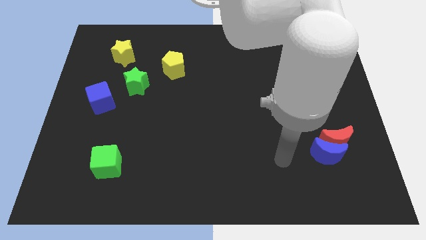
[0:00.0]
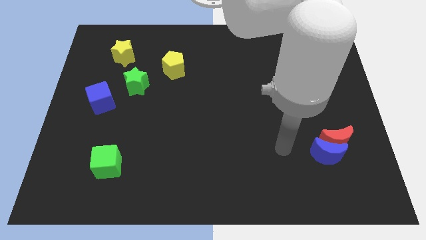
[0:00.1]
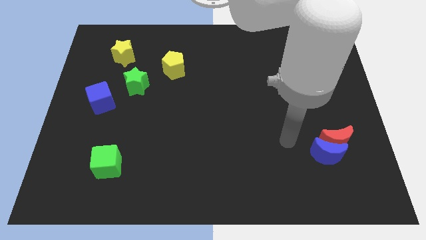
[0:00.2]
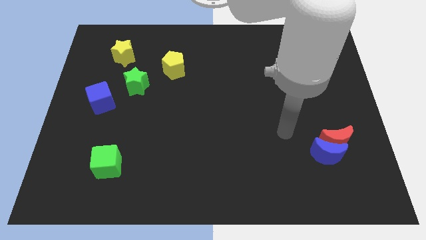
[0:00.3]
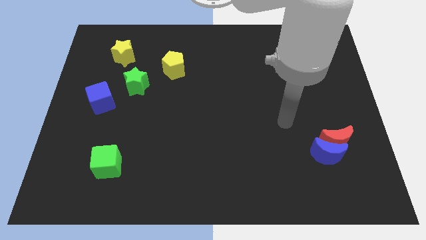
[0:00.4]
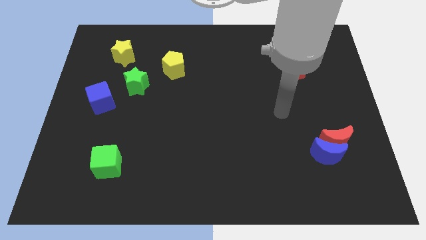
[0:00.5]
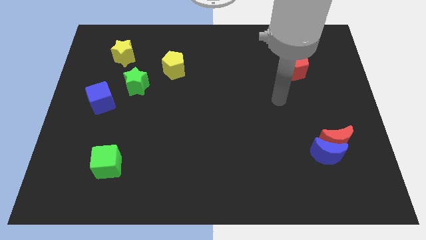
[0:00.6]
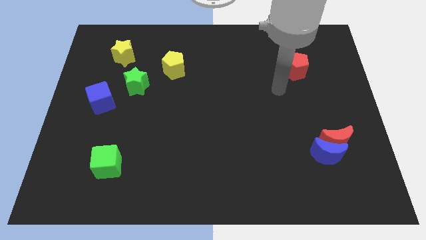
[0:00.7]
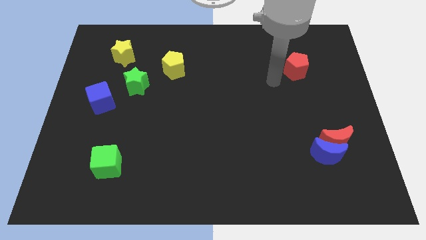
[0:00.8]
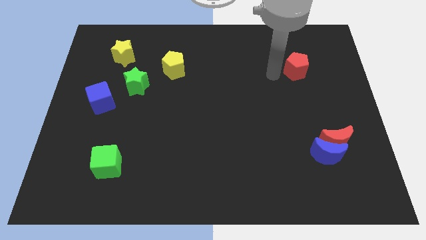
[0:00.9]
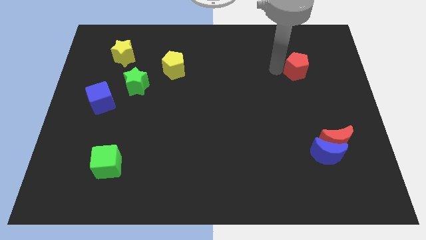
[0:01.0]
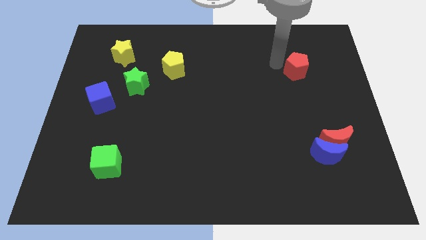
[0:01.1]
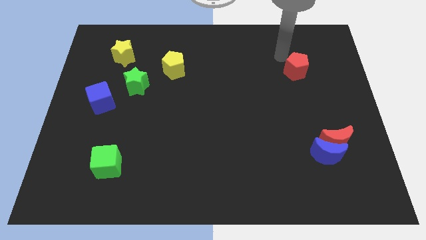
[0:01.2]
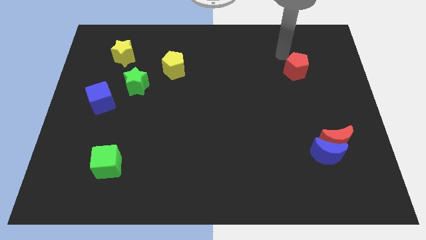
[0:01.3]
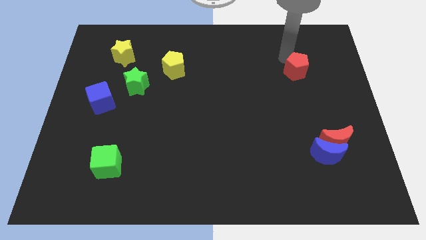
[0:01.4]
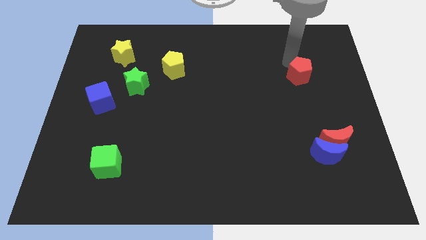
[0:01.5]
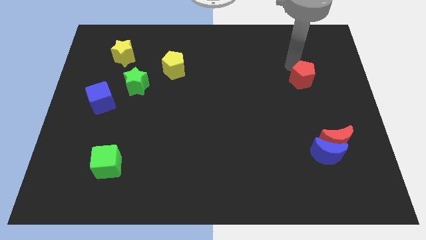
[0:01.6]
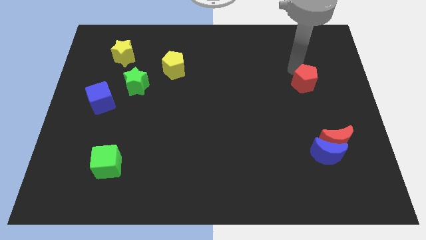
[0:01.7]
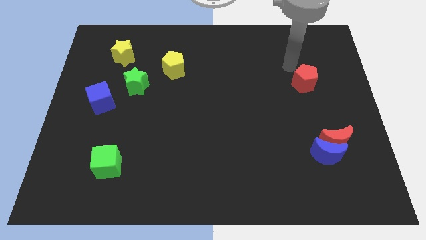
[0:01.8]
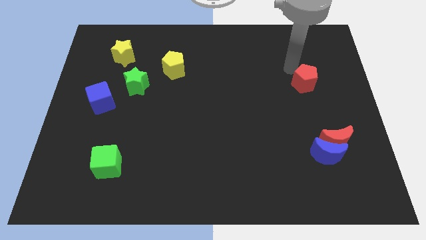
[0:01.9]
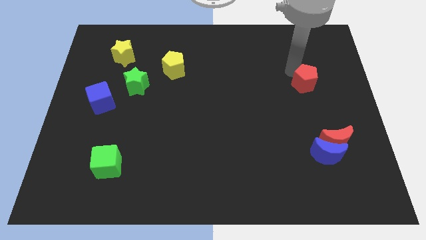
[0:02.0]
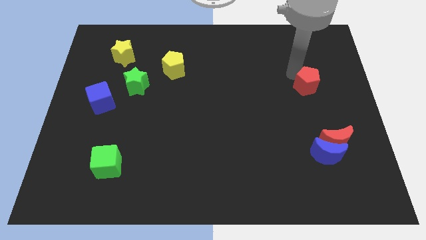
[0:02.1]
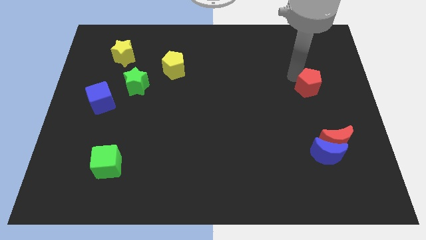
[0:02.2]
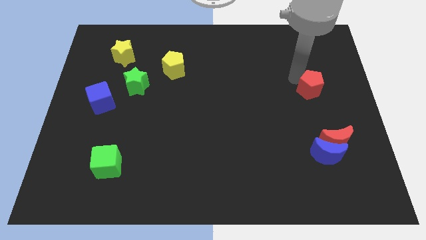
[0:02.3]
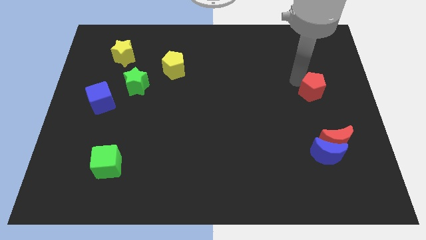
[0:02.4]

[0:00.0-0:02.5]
move the red pentagon to the top of the red moon

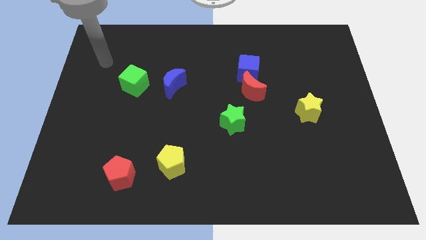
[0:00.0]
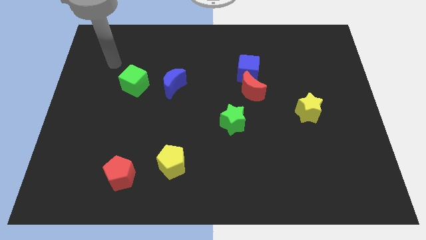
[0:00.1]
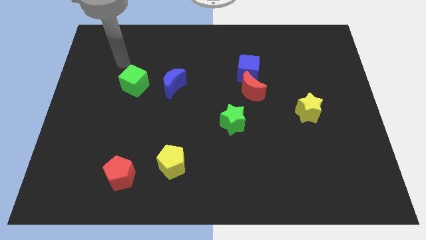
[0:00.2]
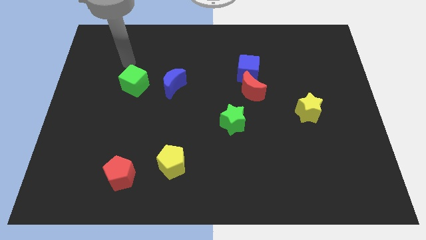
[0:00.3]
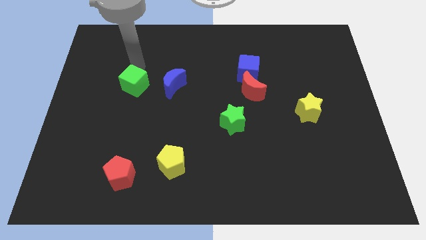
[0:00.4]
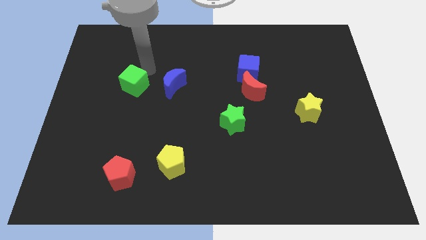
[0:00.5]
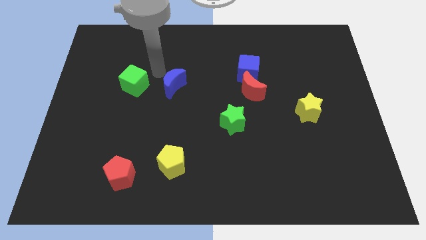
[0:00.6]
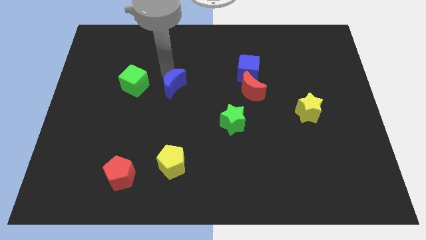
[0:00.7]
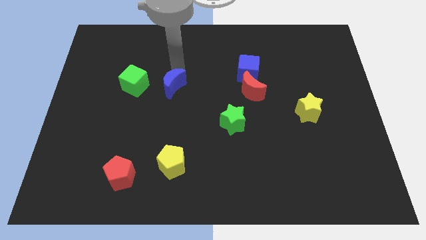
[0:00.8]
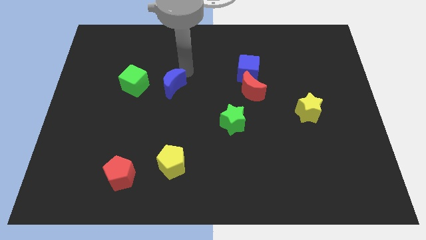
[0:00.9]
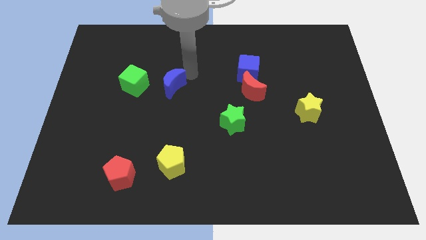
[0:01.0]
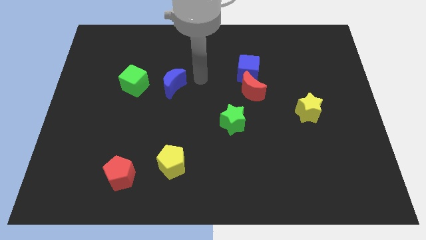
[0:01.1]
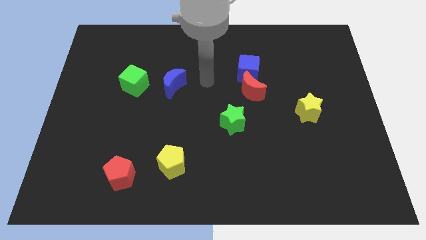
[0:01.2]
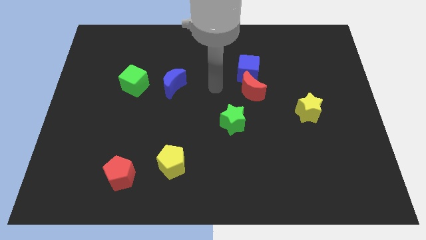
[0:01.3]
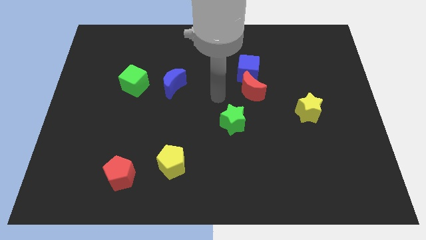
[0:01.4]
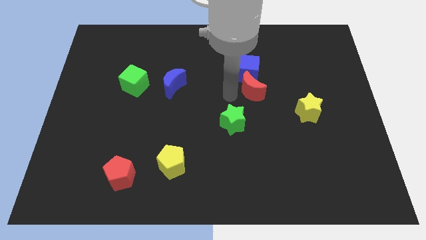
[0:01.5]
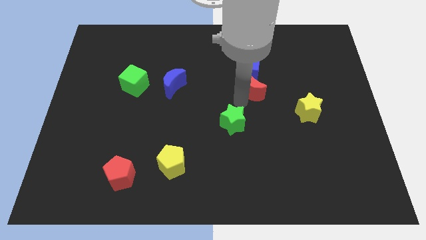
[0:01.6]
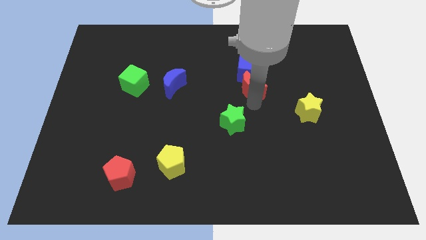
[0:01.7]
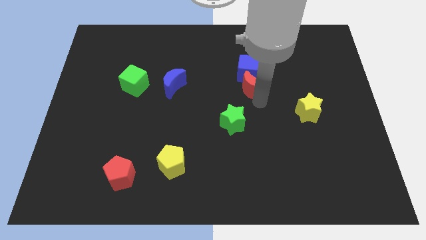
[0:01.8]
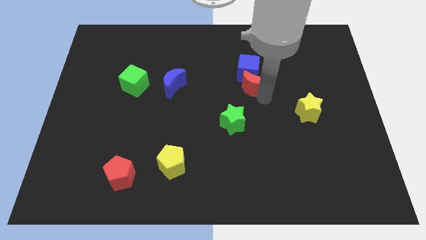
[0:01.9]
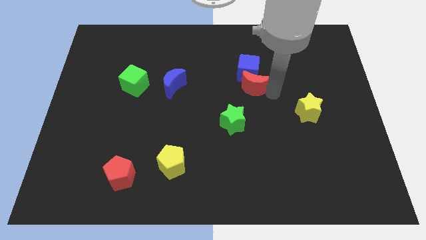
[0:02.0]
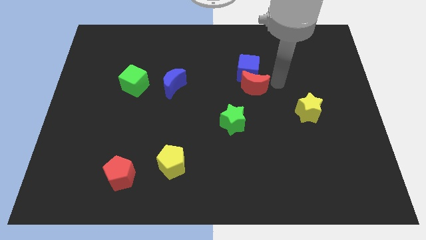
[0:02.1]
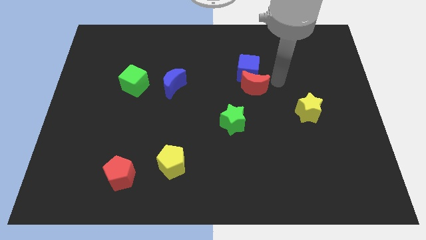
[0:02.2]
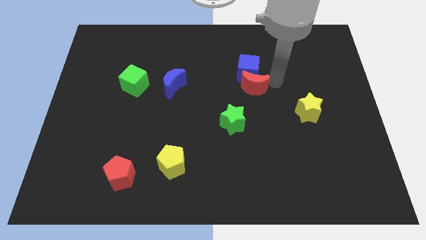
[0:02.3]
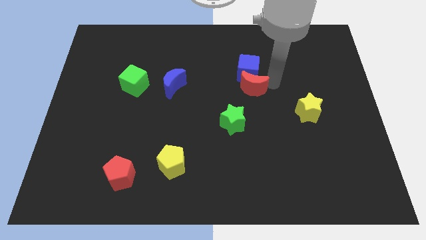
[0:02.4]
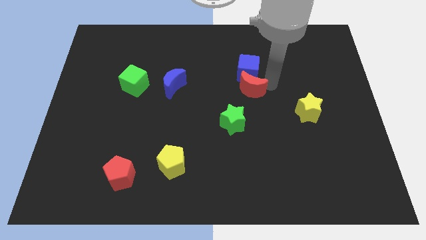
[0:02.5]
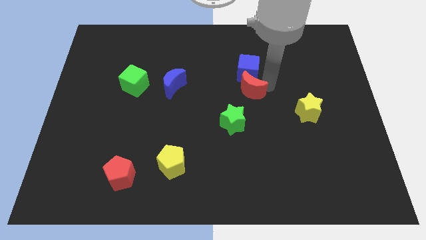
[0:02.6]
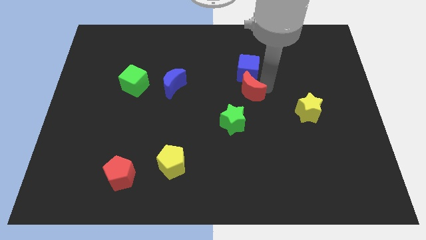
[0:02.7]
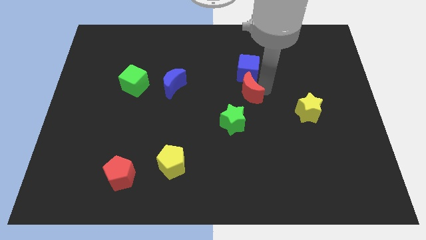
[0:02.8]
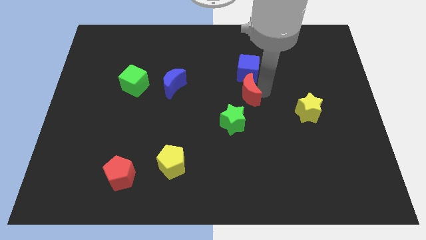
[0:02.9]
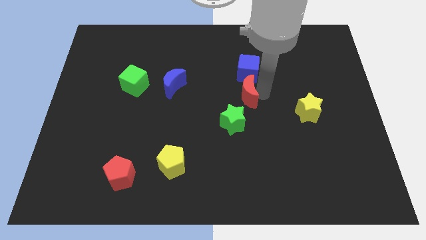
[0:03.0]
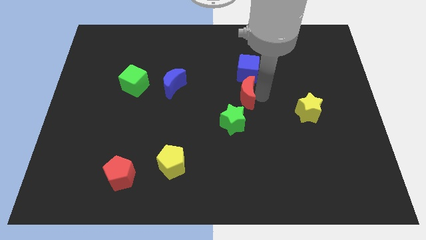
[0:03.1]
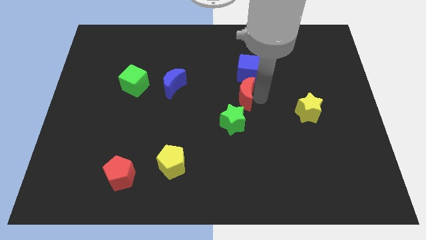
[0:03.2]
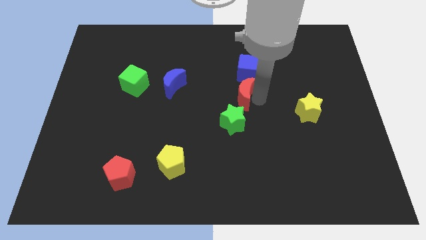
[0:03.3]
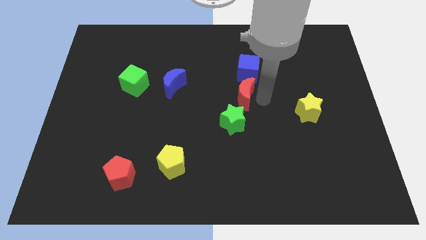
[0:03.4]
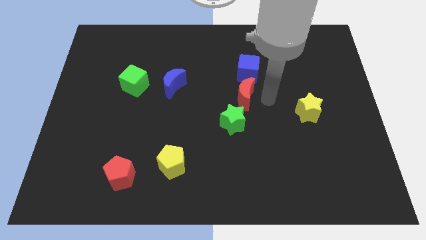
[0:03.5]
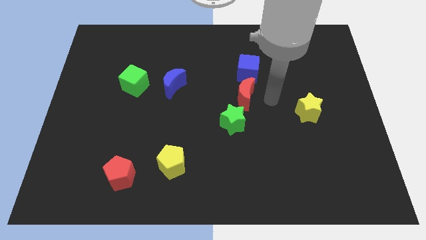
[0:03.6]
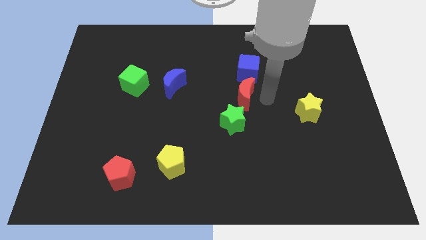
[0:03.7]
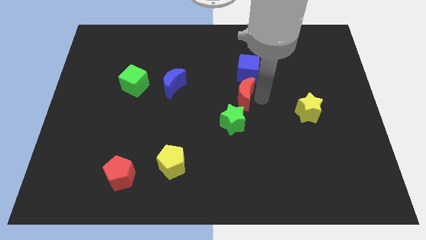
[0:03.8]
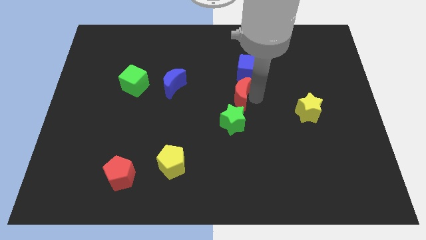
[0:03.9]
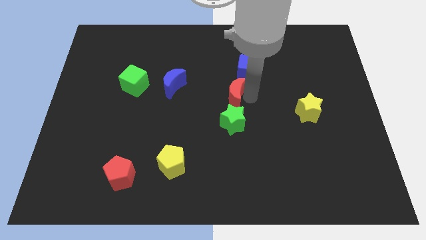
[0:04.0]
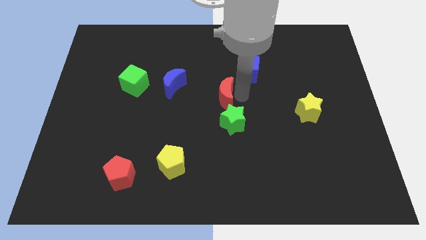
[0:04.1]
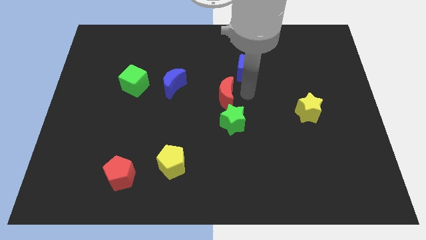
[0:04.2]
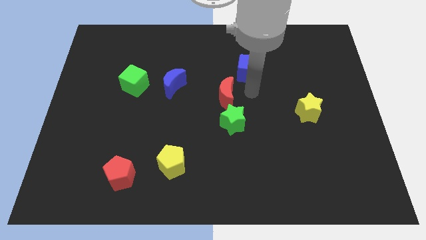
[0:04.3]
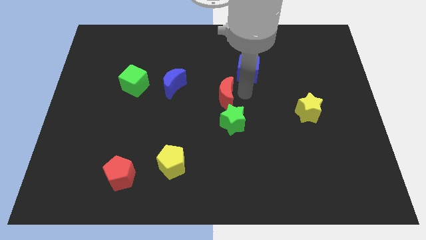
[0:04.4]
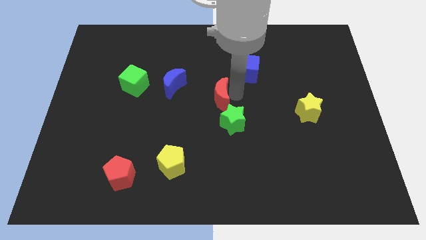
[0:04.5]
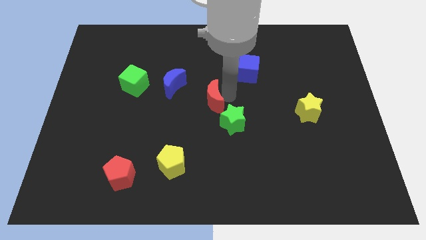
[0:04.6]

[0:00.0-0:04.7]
slide the red moon to the bottom right of the blue moon

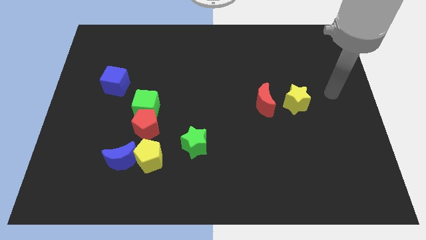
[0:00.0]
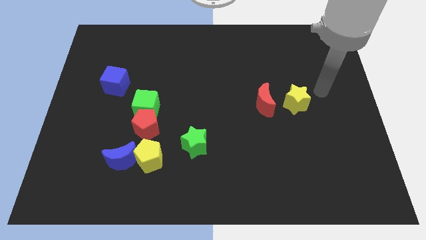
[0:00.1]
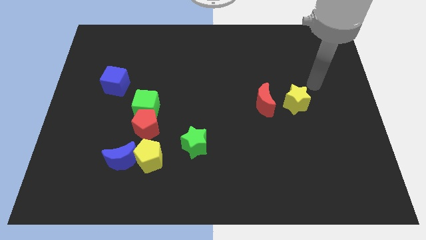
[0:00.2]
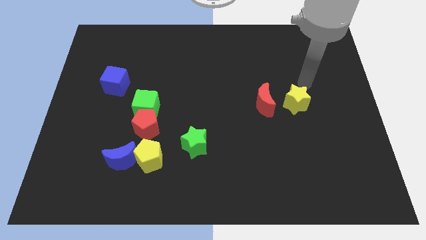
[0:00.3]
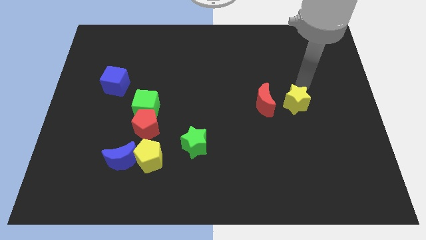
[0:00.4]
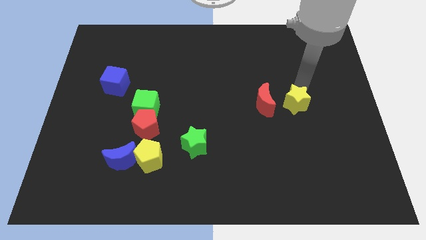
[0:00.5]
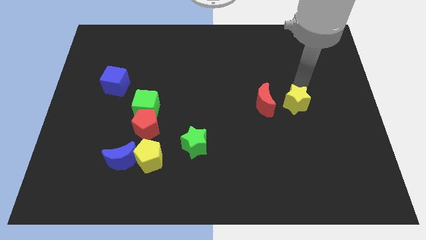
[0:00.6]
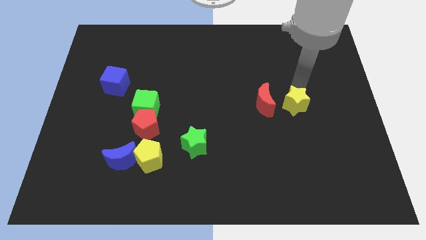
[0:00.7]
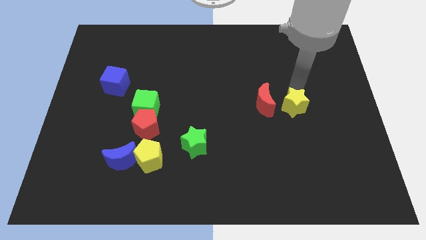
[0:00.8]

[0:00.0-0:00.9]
put the yellow star to the bottom right side of the red moon

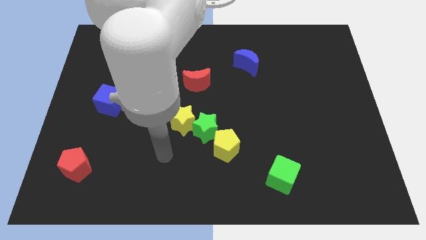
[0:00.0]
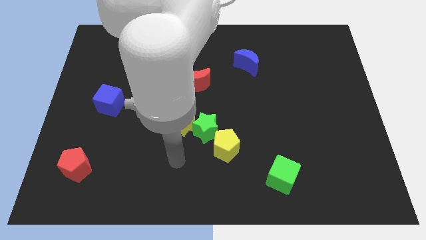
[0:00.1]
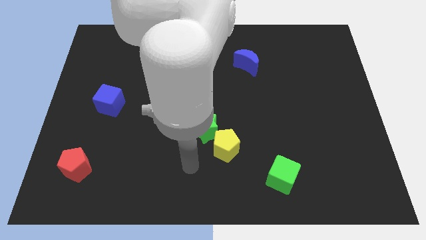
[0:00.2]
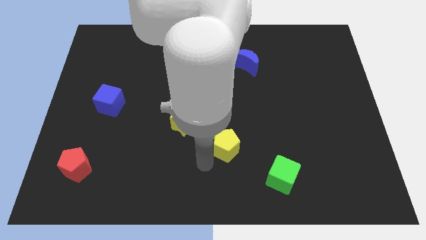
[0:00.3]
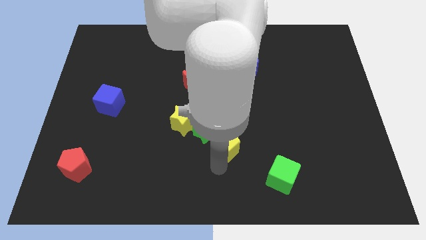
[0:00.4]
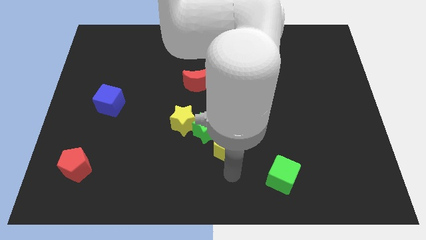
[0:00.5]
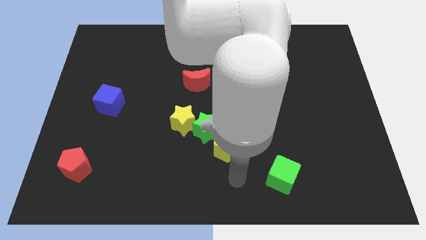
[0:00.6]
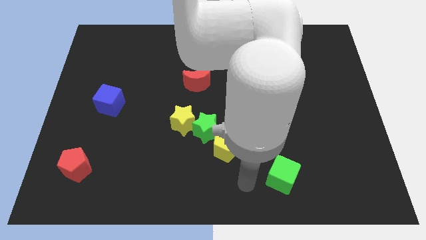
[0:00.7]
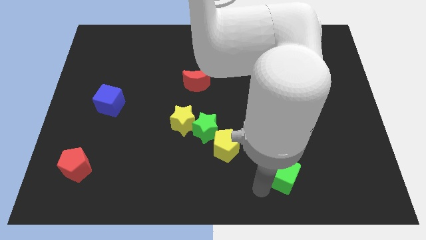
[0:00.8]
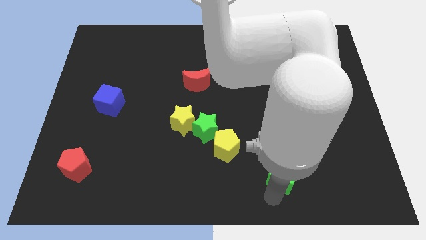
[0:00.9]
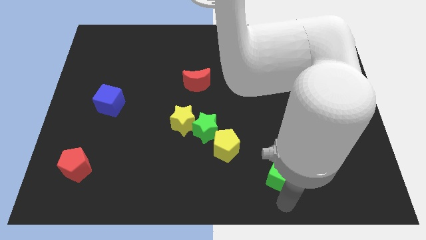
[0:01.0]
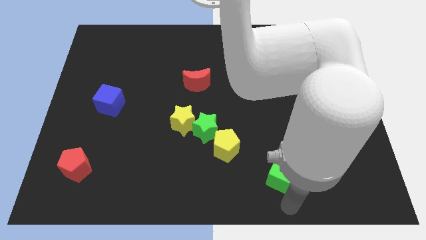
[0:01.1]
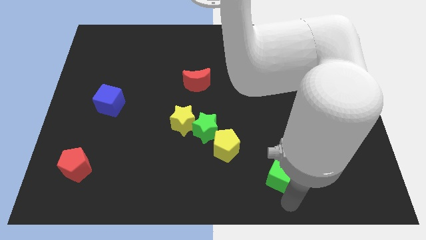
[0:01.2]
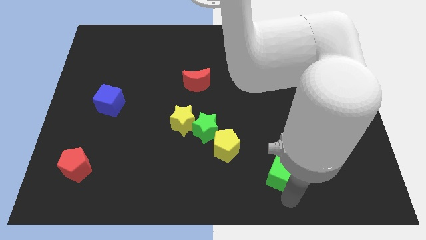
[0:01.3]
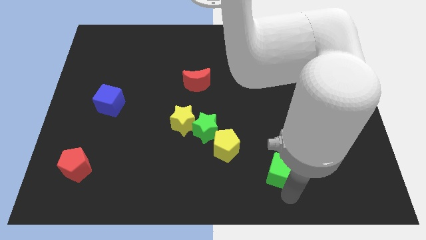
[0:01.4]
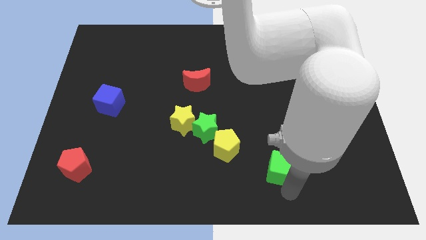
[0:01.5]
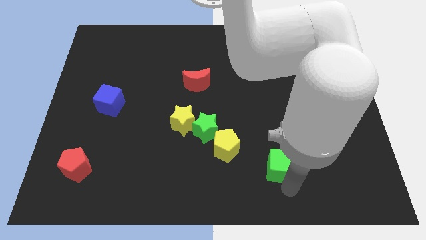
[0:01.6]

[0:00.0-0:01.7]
slide the green cube right of the yellow pentagon
